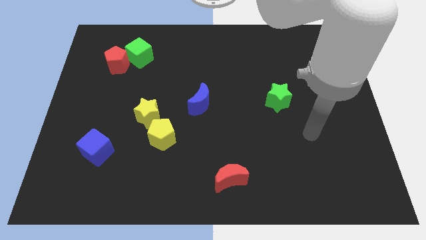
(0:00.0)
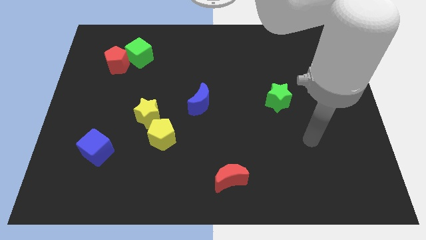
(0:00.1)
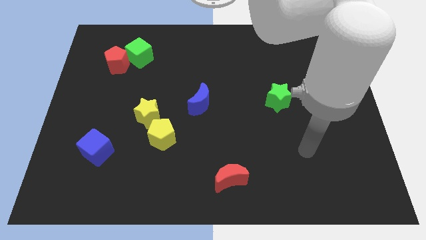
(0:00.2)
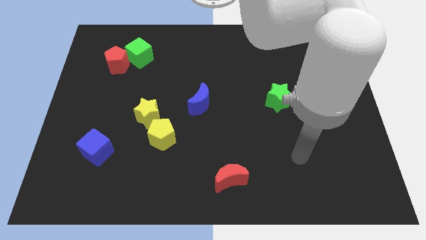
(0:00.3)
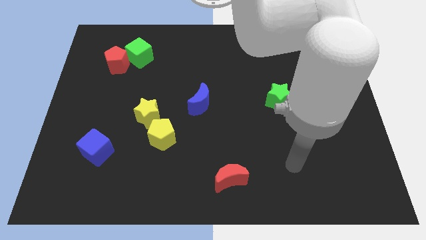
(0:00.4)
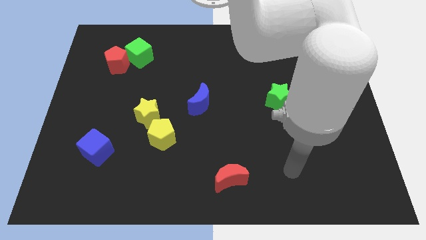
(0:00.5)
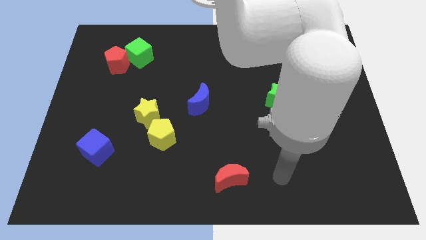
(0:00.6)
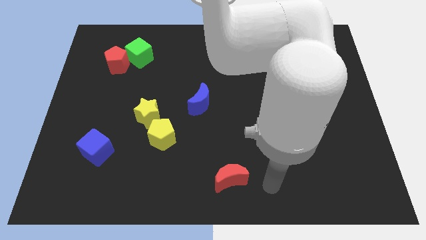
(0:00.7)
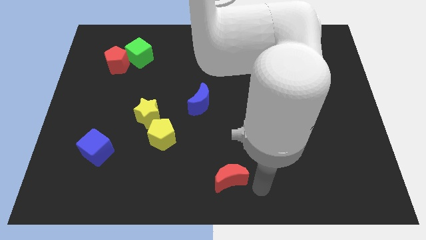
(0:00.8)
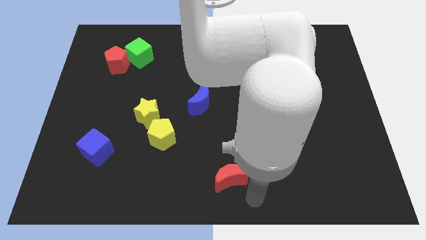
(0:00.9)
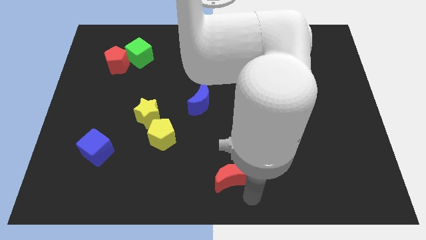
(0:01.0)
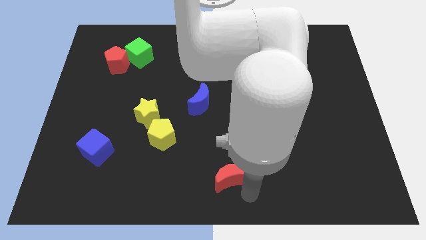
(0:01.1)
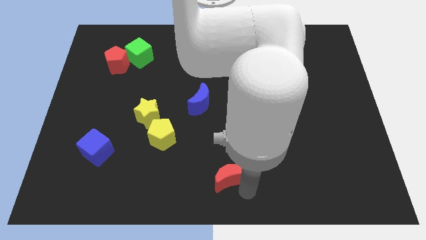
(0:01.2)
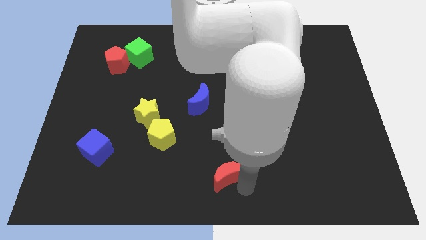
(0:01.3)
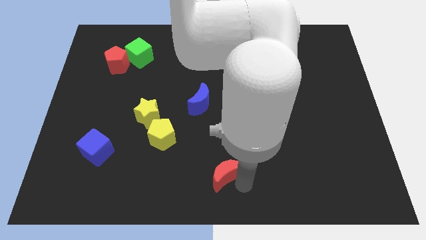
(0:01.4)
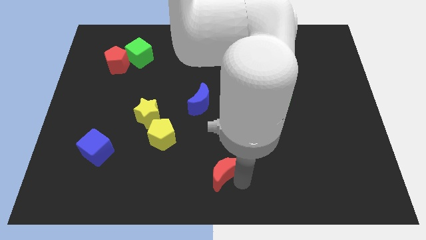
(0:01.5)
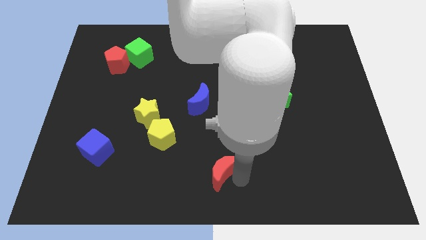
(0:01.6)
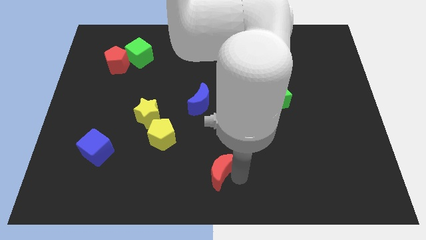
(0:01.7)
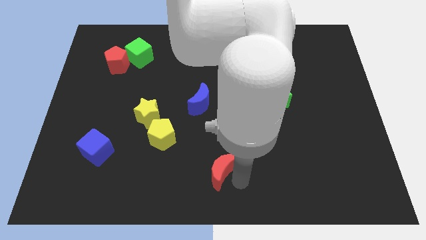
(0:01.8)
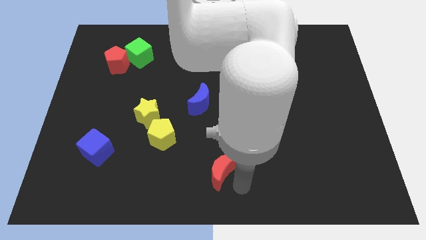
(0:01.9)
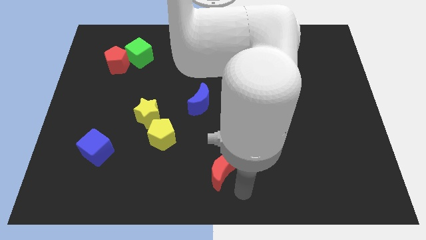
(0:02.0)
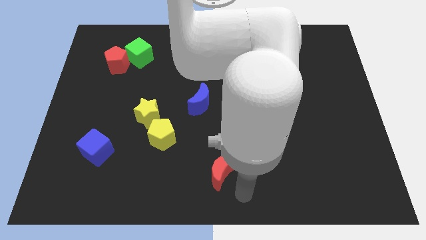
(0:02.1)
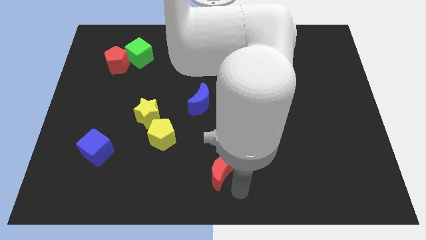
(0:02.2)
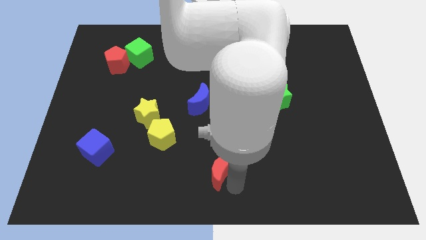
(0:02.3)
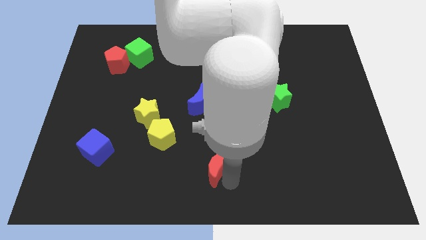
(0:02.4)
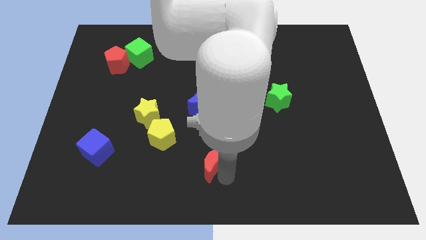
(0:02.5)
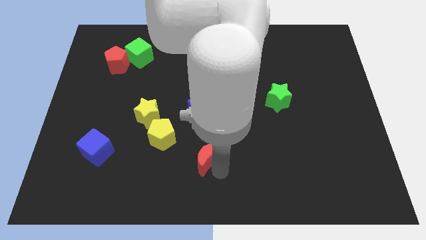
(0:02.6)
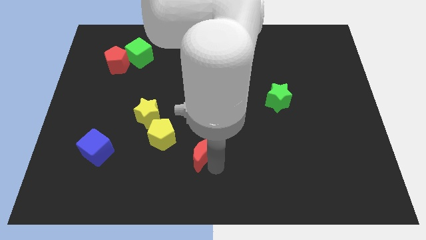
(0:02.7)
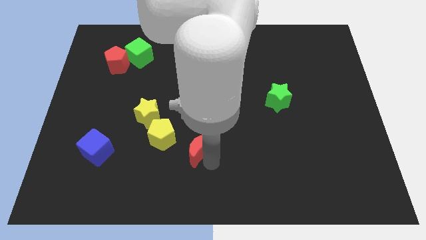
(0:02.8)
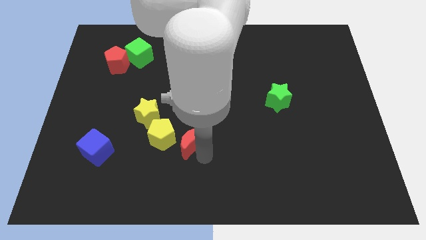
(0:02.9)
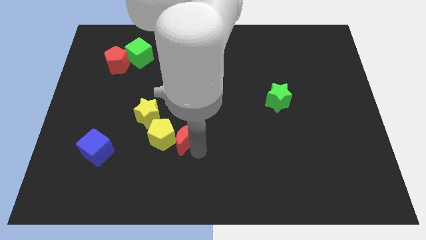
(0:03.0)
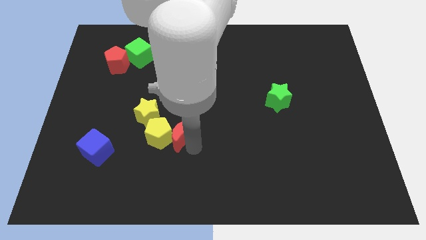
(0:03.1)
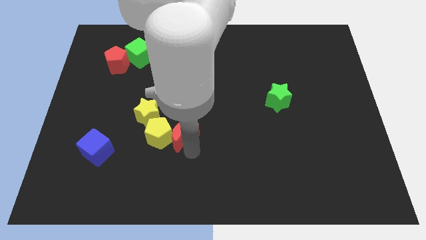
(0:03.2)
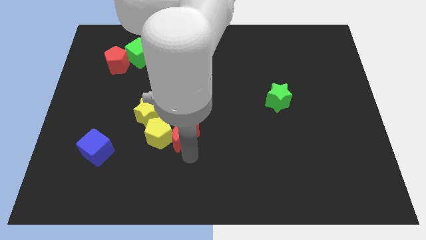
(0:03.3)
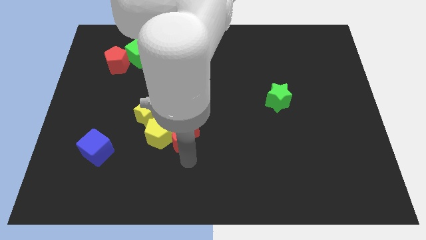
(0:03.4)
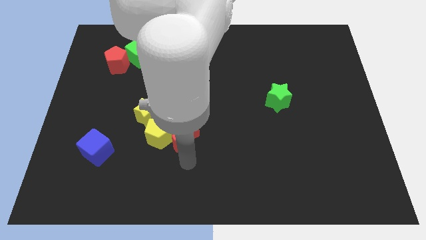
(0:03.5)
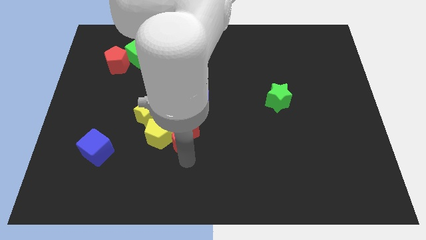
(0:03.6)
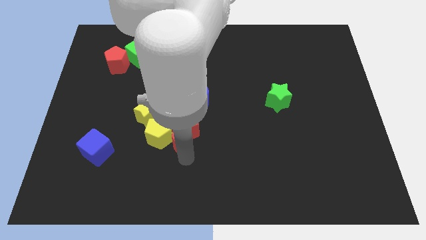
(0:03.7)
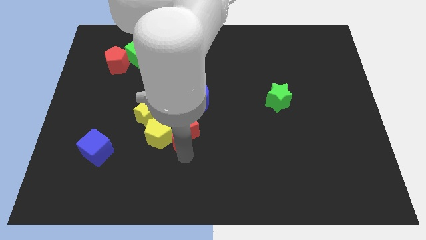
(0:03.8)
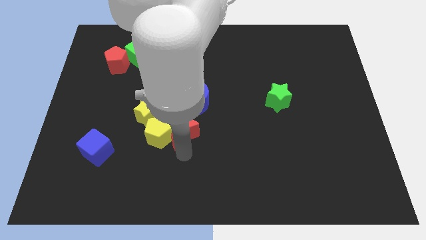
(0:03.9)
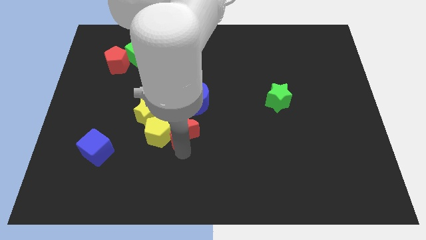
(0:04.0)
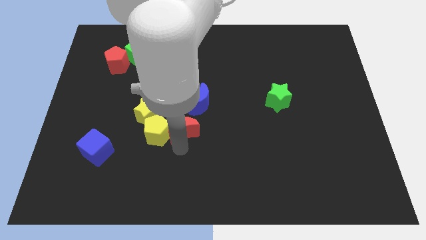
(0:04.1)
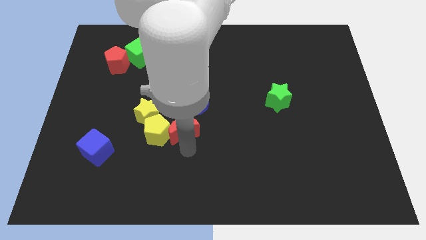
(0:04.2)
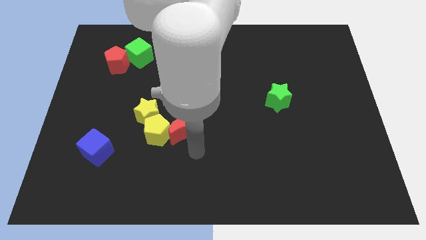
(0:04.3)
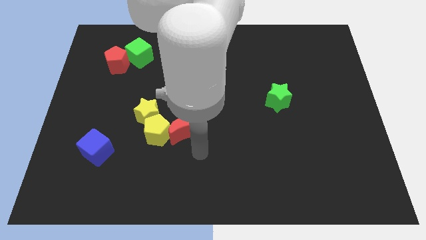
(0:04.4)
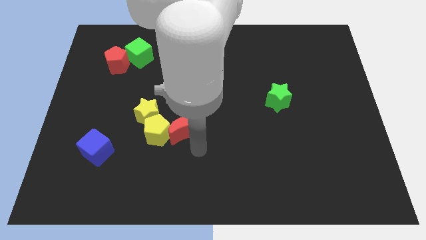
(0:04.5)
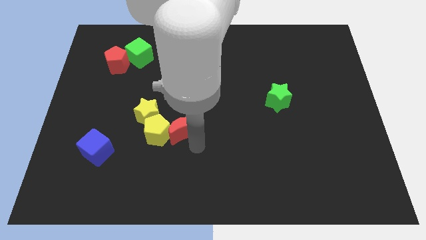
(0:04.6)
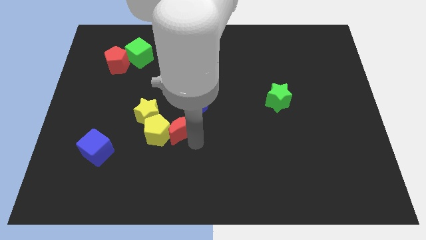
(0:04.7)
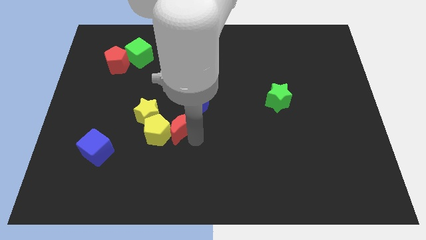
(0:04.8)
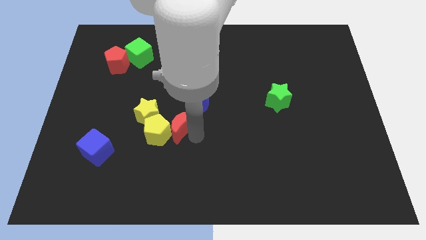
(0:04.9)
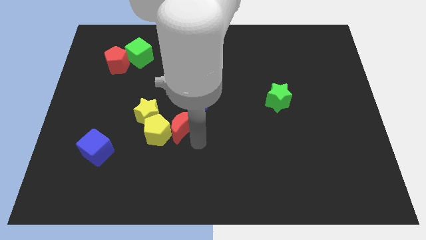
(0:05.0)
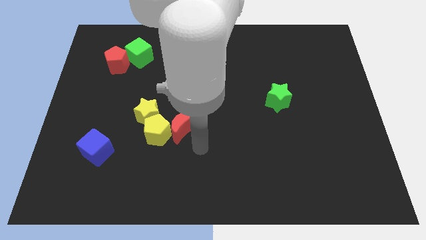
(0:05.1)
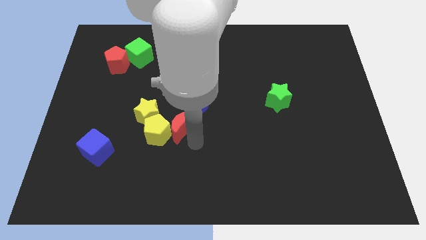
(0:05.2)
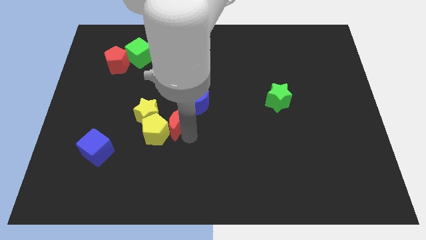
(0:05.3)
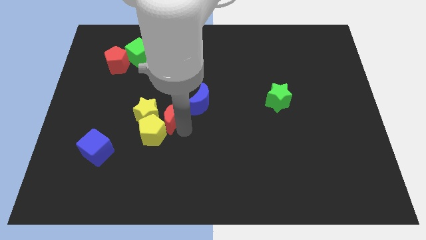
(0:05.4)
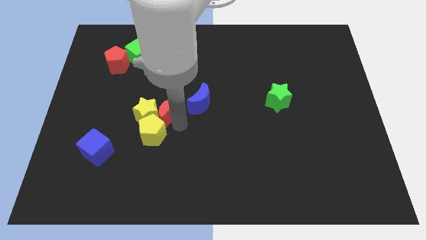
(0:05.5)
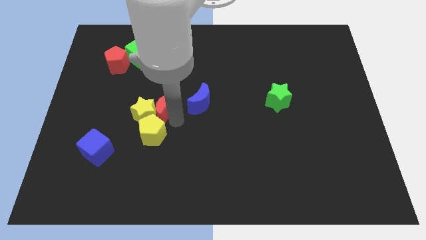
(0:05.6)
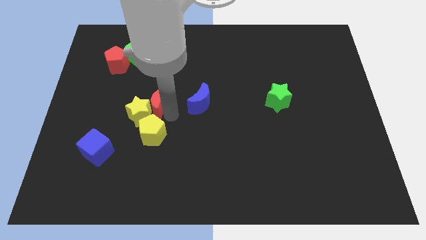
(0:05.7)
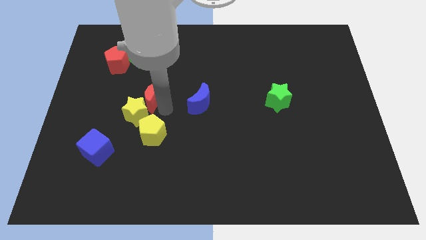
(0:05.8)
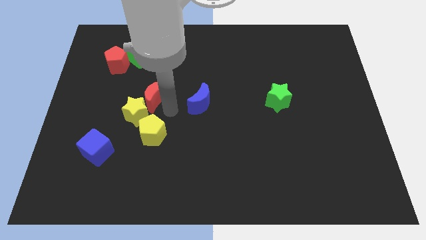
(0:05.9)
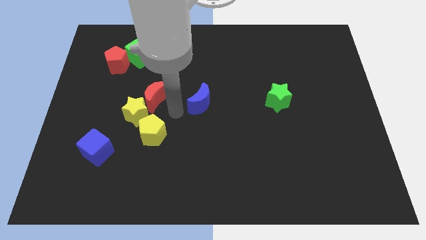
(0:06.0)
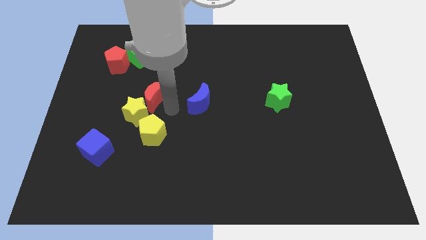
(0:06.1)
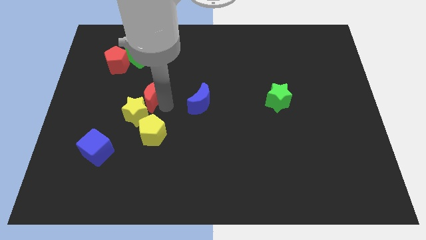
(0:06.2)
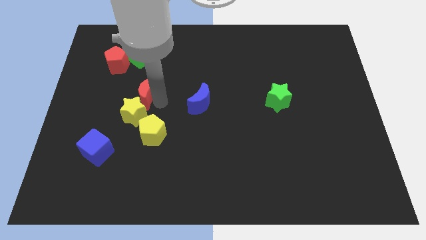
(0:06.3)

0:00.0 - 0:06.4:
slide the red moon to the bottom side of the green cube

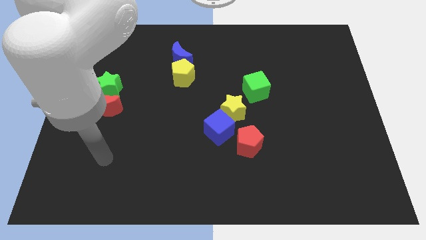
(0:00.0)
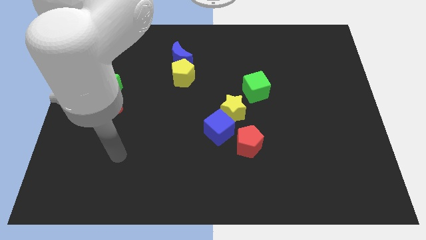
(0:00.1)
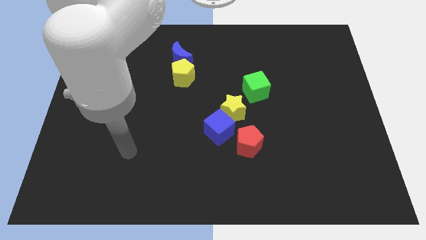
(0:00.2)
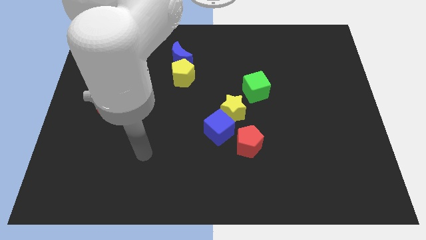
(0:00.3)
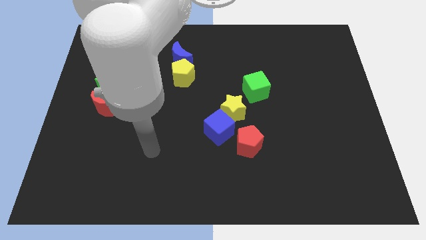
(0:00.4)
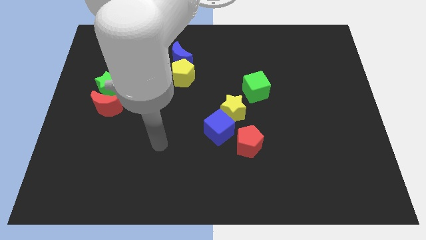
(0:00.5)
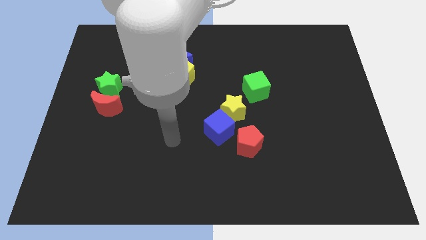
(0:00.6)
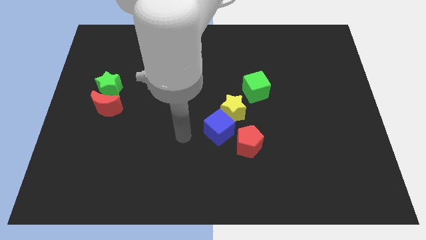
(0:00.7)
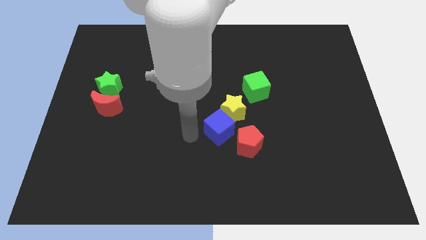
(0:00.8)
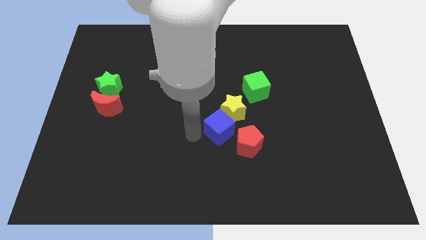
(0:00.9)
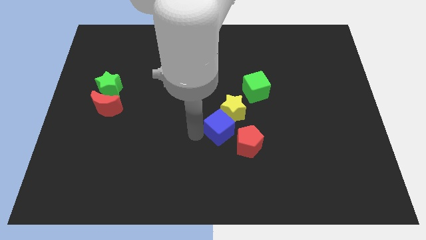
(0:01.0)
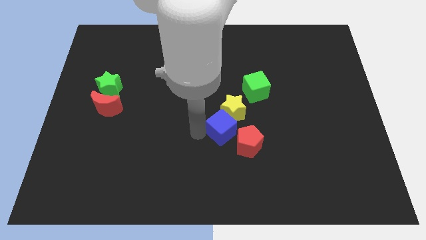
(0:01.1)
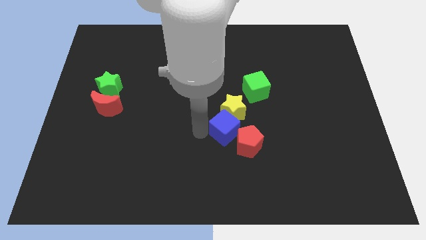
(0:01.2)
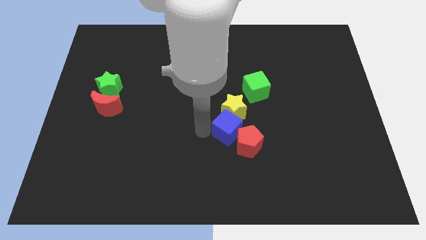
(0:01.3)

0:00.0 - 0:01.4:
push the blue cube diagonally down and to the right of the yellow star

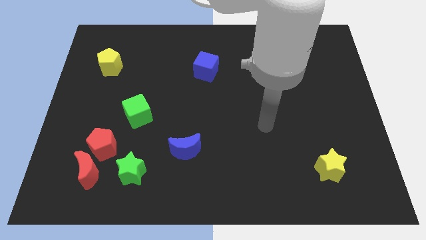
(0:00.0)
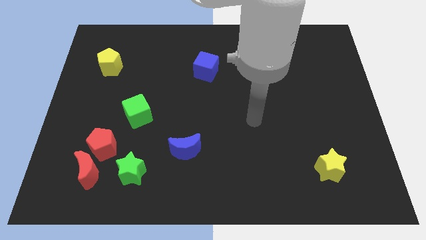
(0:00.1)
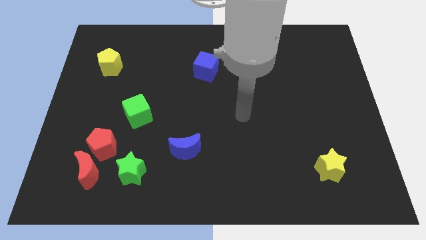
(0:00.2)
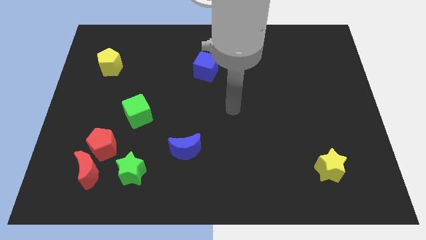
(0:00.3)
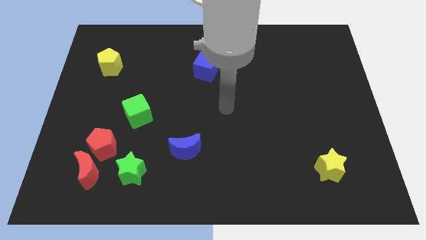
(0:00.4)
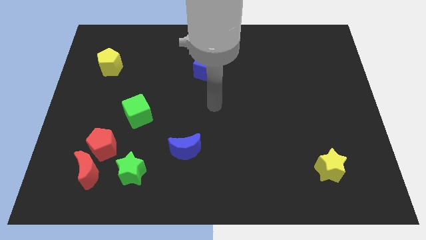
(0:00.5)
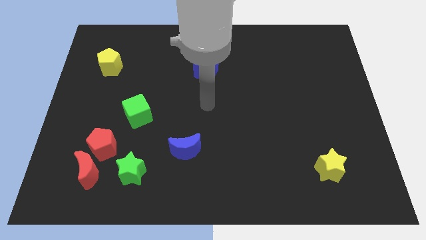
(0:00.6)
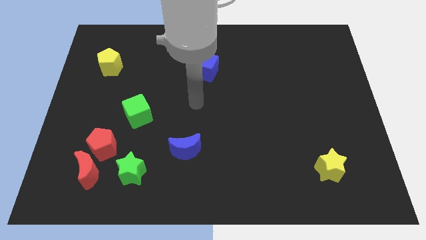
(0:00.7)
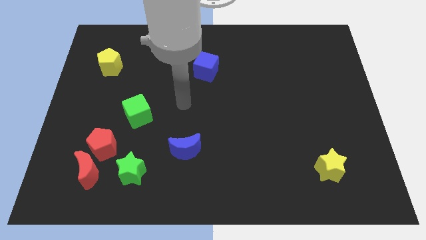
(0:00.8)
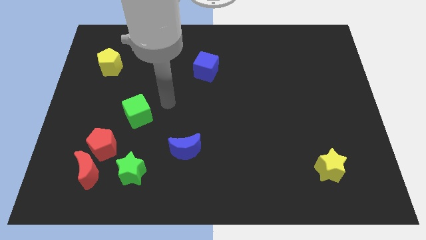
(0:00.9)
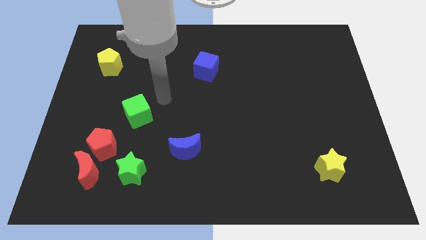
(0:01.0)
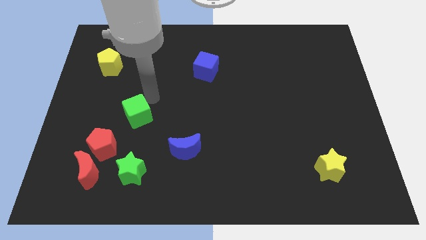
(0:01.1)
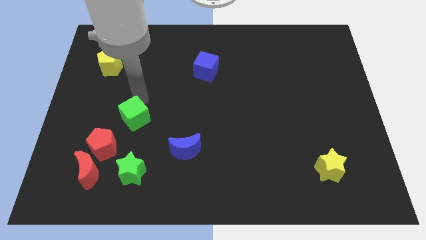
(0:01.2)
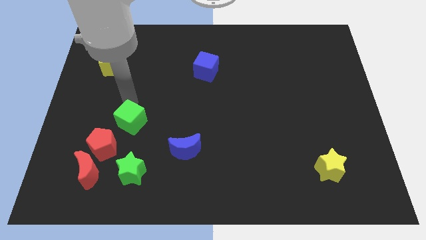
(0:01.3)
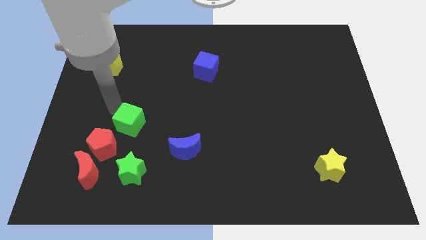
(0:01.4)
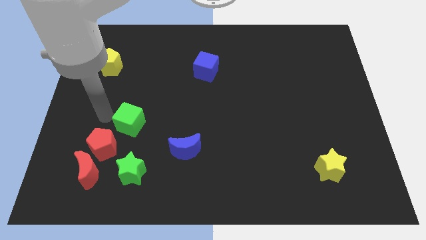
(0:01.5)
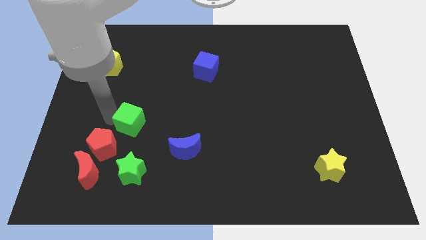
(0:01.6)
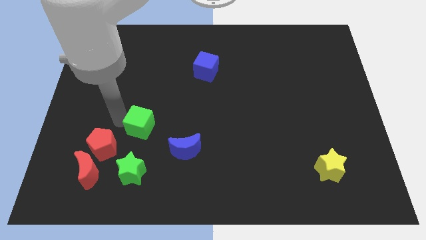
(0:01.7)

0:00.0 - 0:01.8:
push the green cube to the top left of the blue moon
